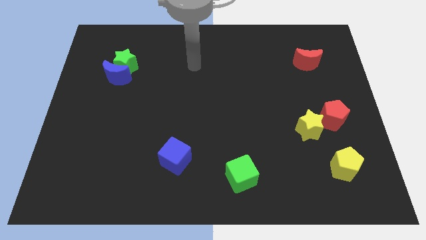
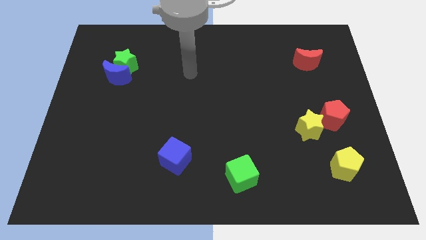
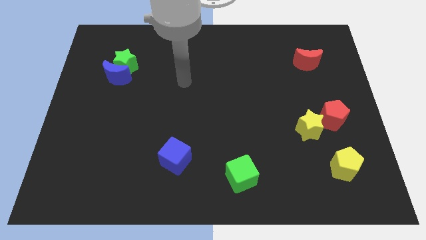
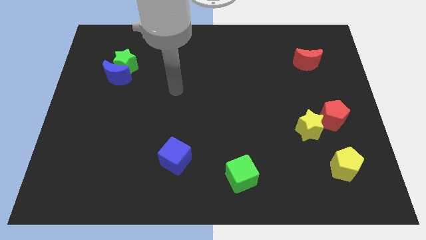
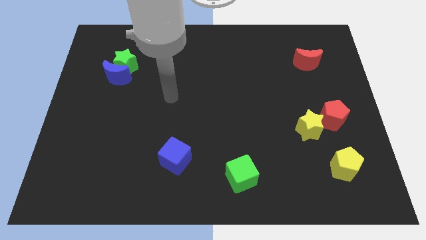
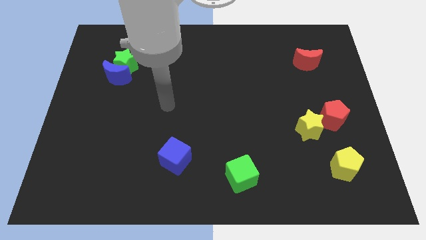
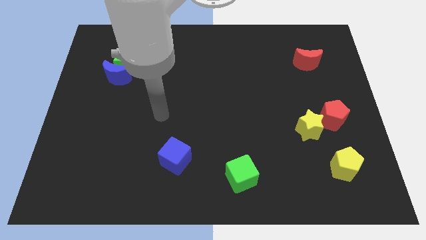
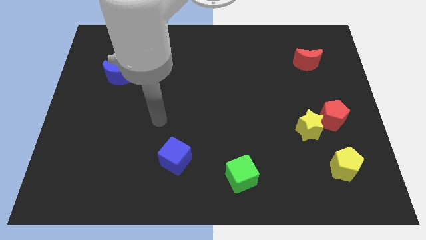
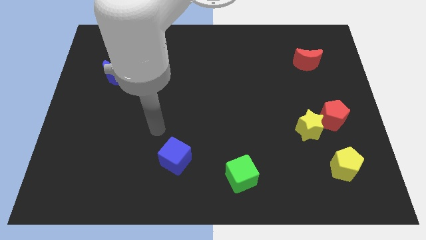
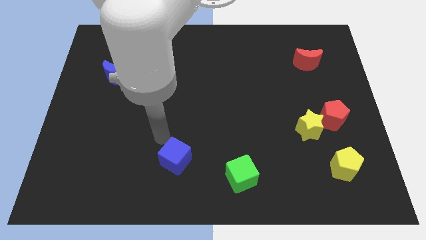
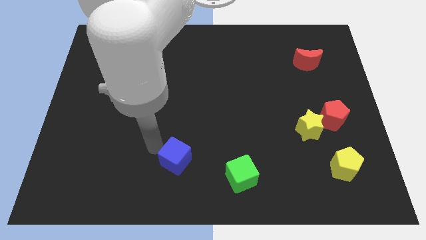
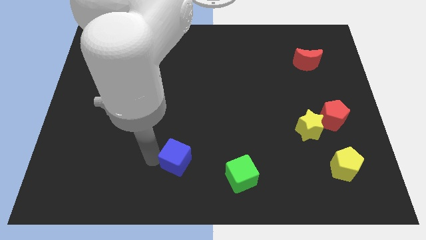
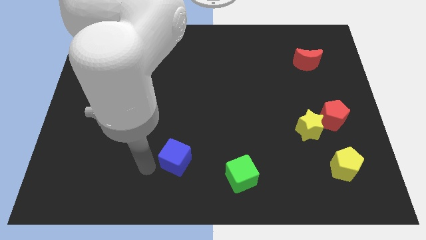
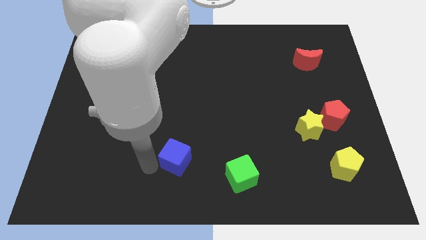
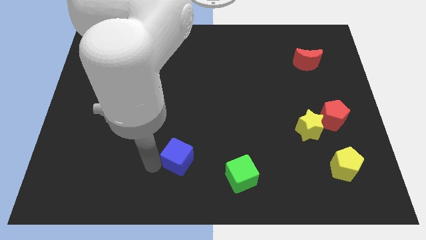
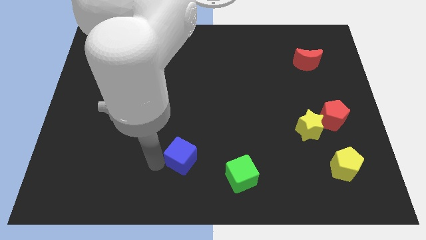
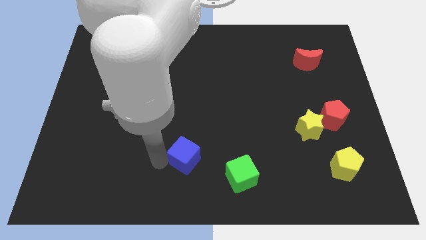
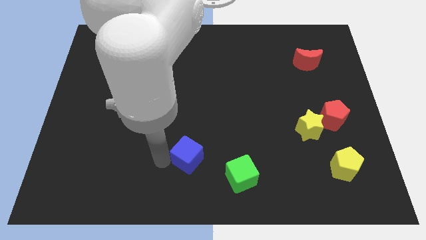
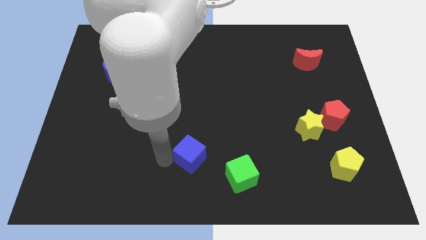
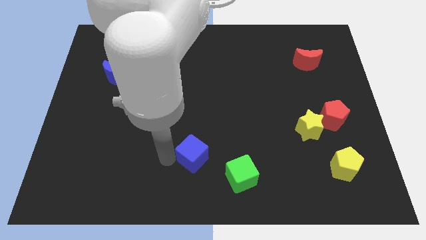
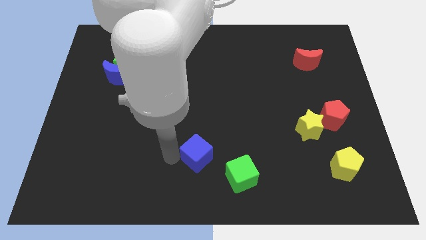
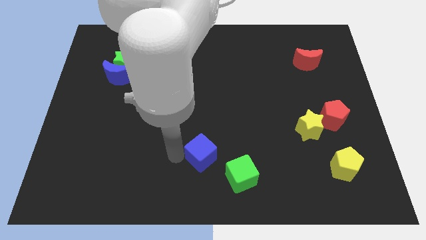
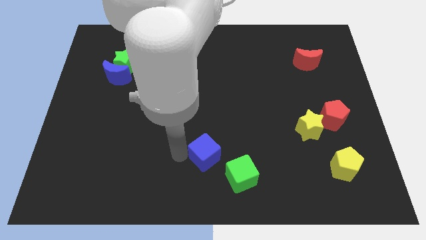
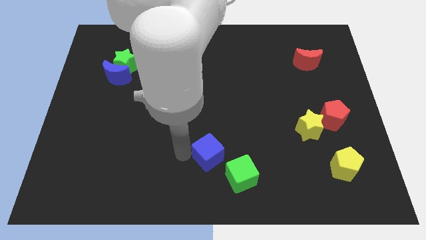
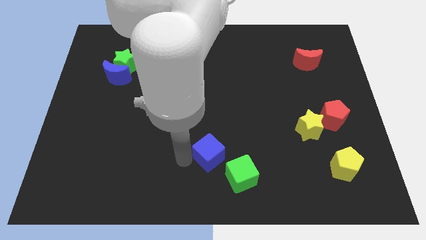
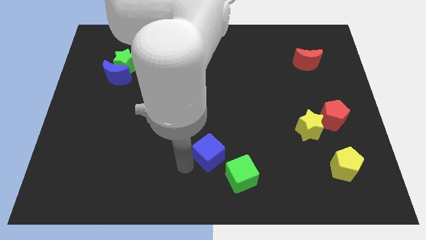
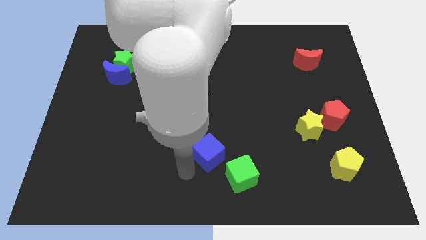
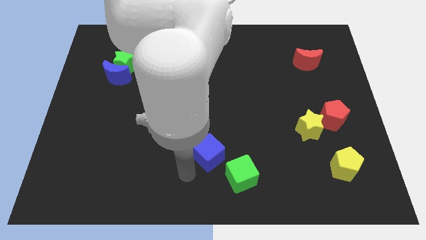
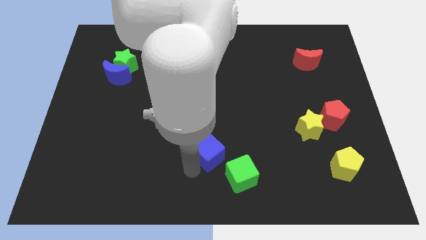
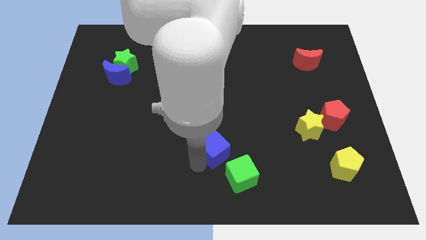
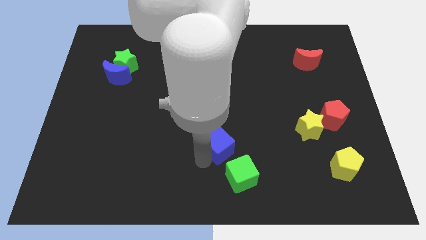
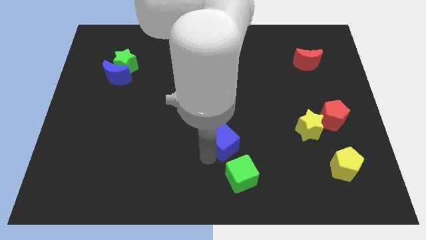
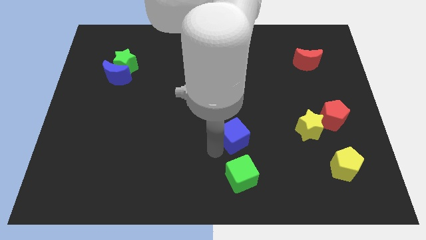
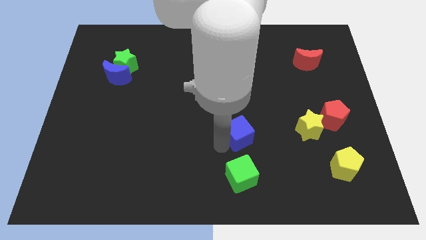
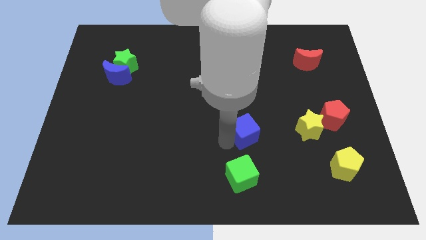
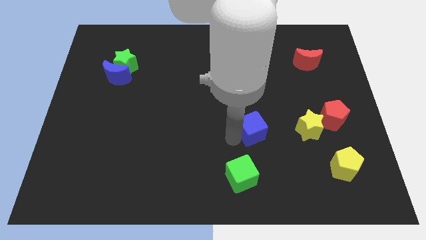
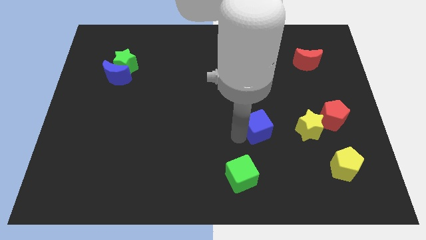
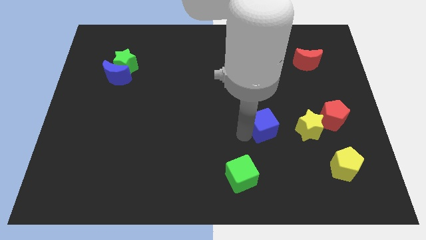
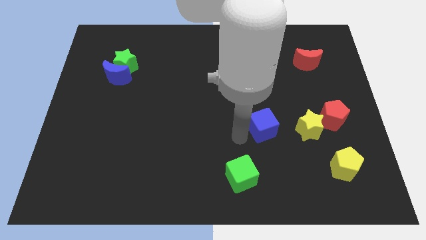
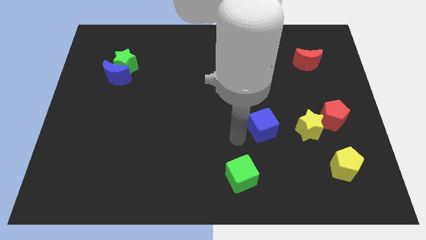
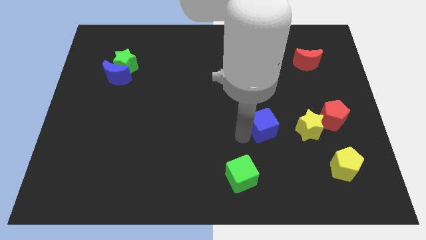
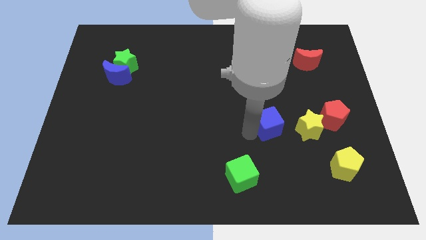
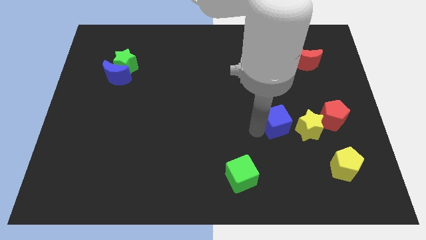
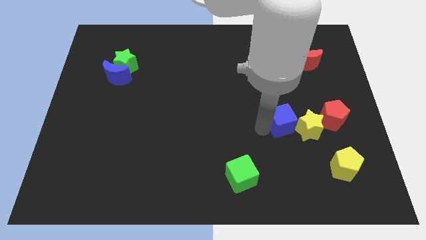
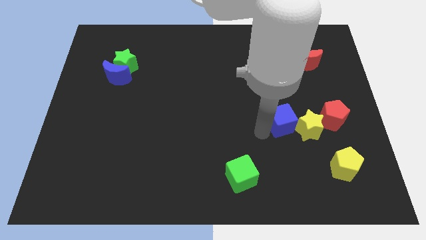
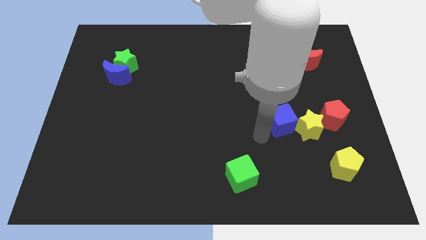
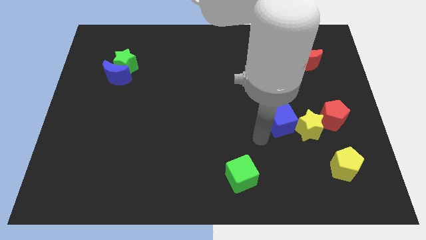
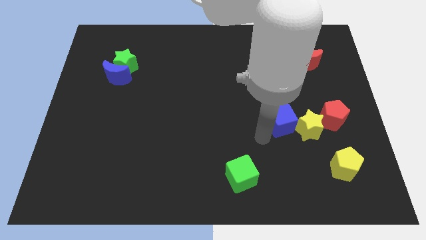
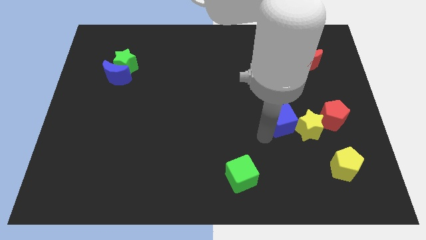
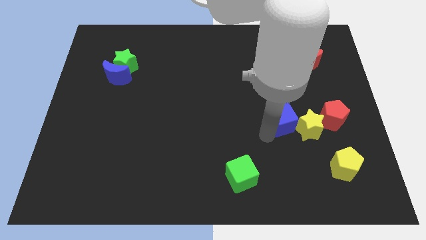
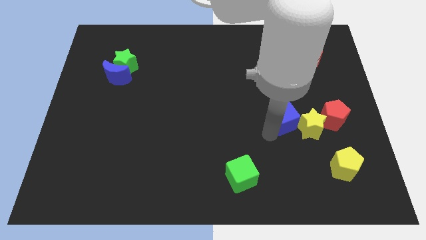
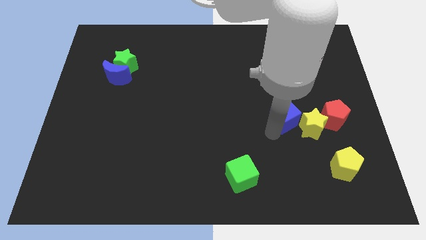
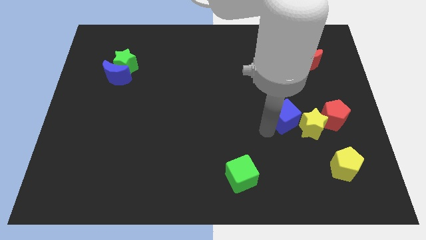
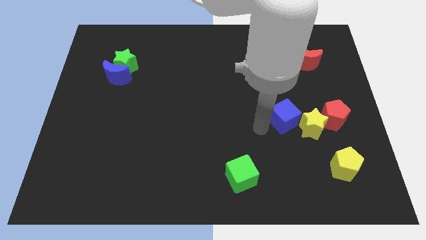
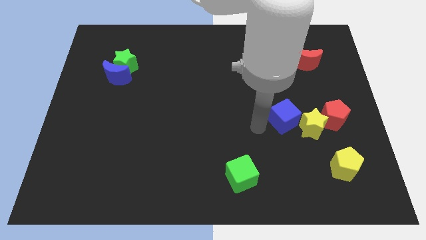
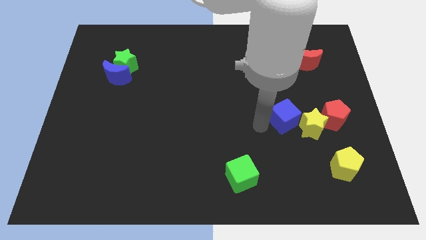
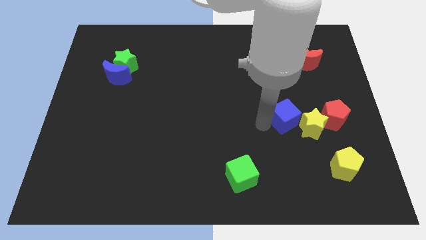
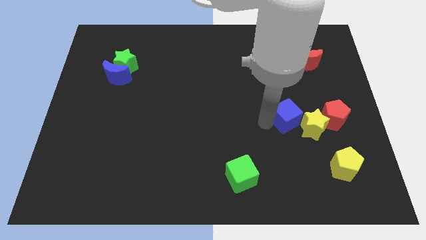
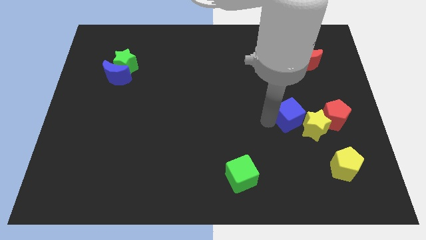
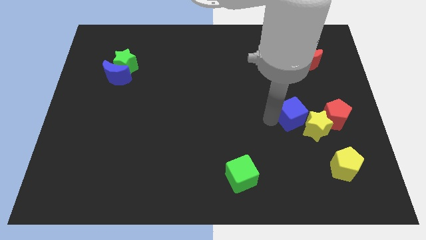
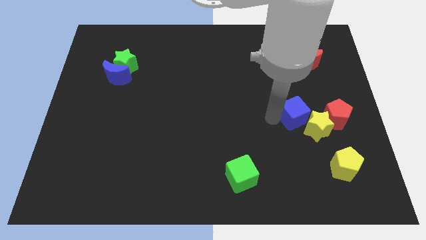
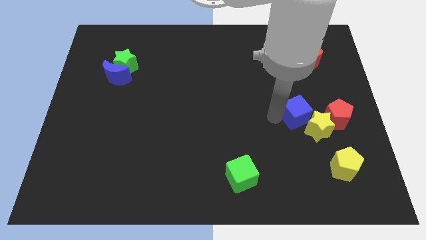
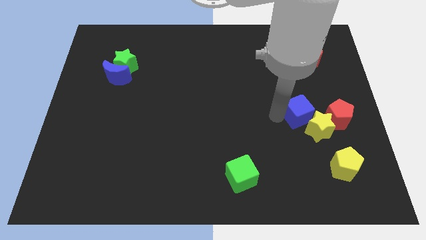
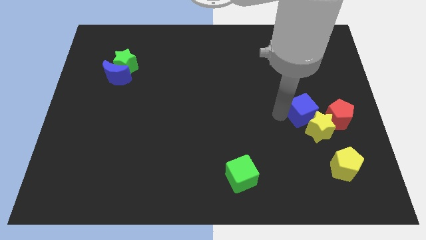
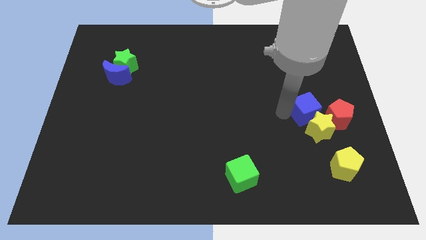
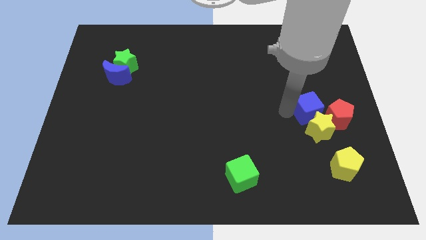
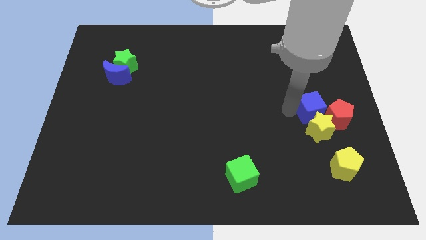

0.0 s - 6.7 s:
put the blue cube next to the red pentagon
